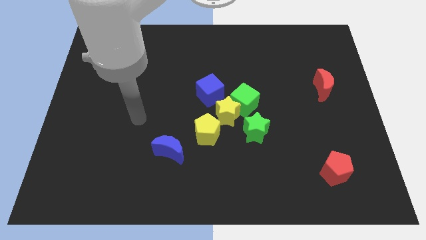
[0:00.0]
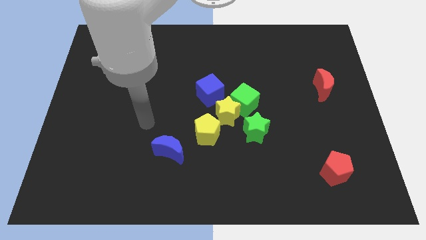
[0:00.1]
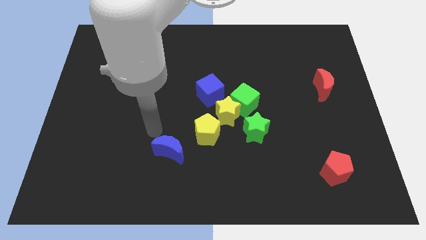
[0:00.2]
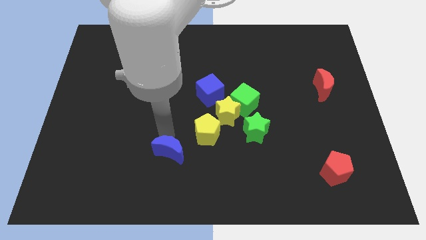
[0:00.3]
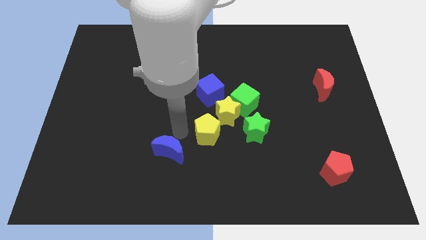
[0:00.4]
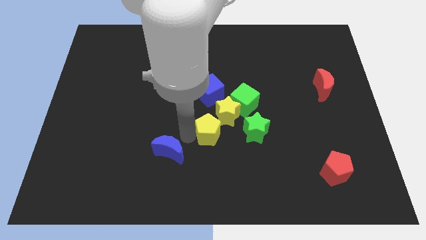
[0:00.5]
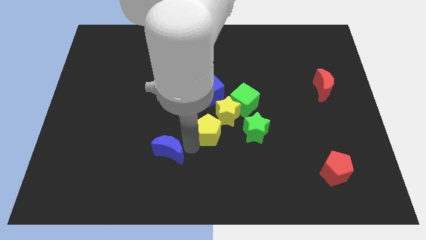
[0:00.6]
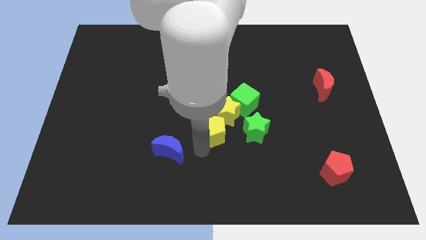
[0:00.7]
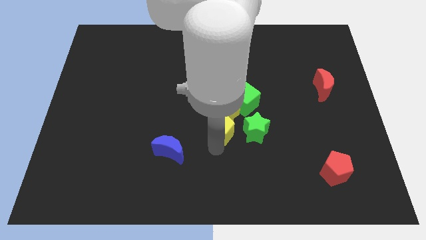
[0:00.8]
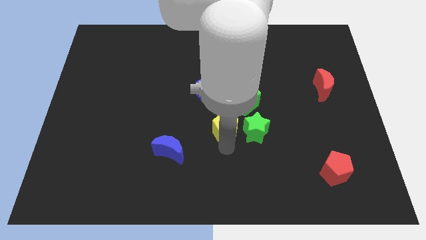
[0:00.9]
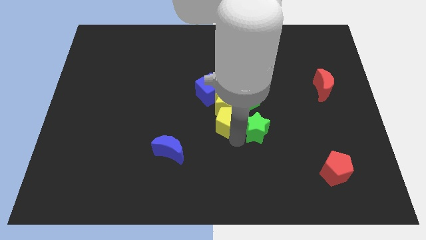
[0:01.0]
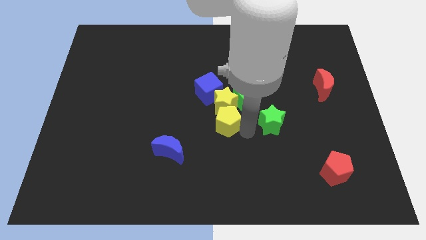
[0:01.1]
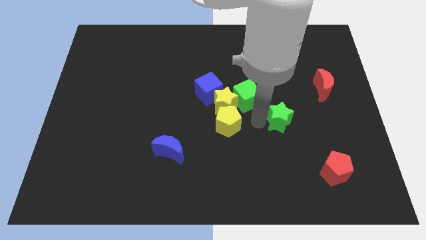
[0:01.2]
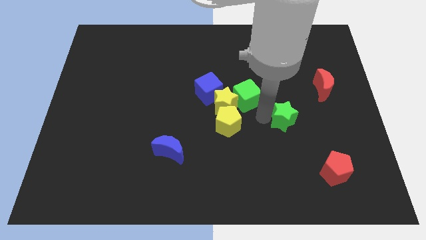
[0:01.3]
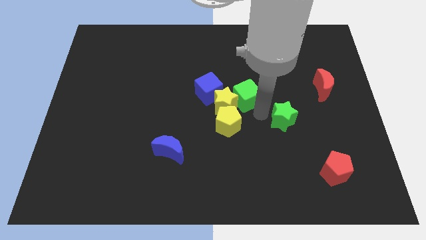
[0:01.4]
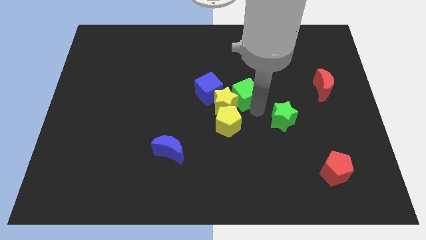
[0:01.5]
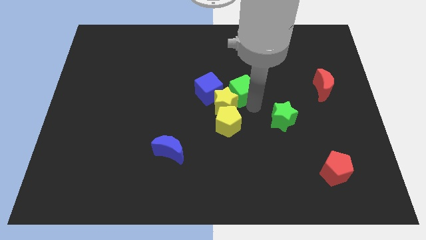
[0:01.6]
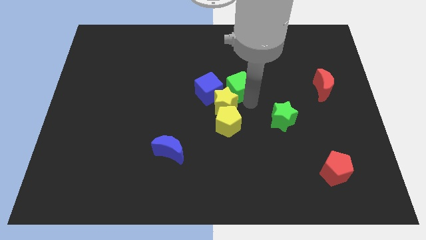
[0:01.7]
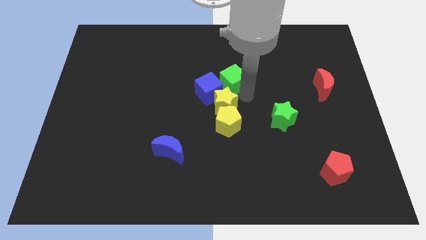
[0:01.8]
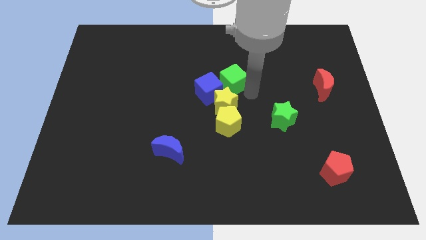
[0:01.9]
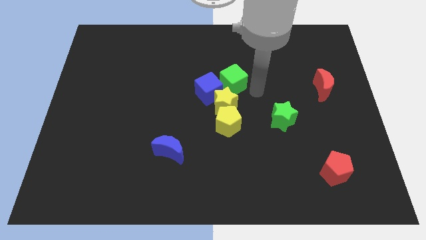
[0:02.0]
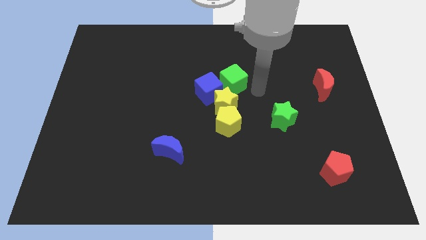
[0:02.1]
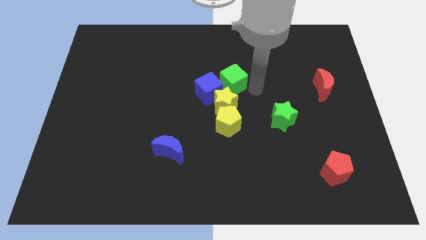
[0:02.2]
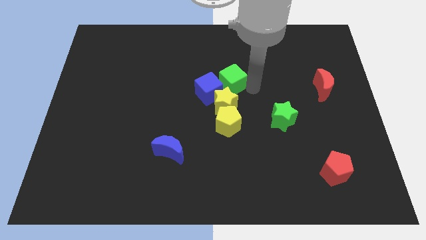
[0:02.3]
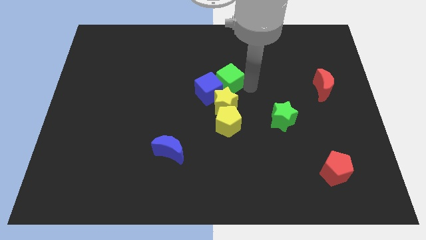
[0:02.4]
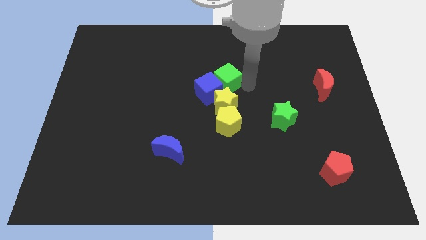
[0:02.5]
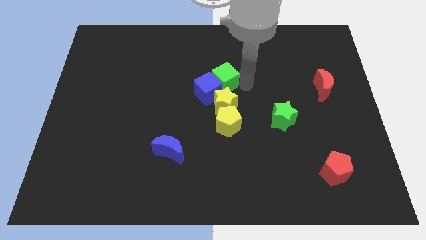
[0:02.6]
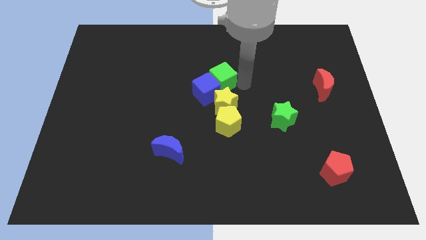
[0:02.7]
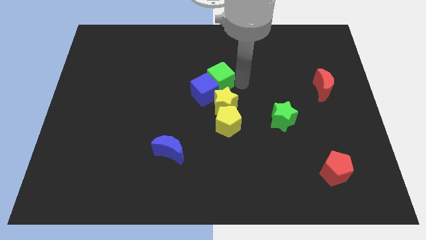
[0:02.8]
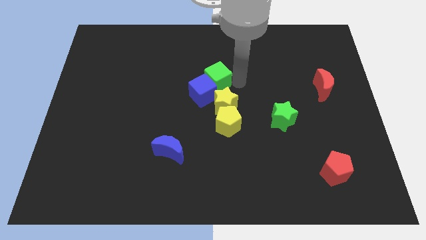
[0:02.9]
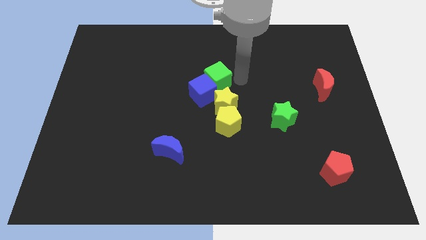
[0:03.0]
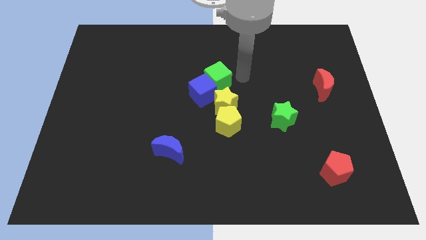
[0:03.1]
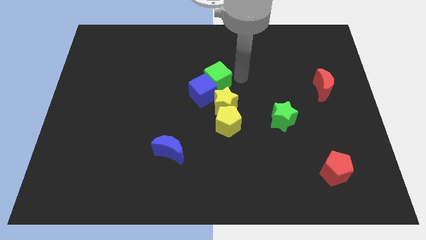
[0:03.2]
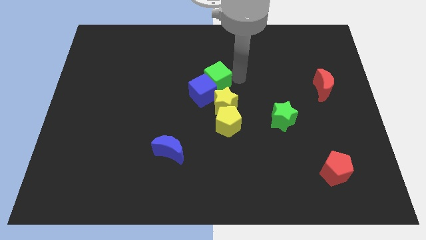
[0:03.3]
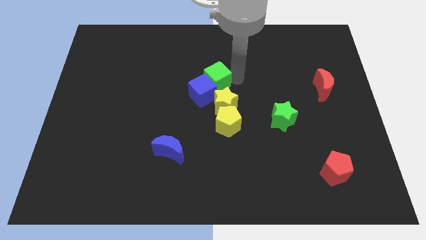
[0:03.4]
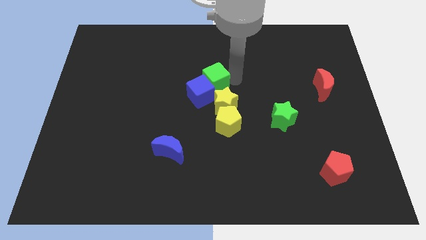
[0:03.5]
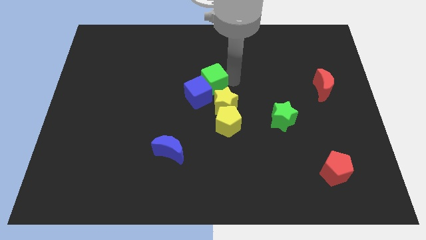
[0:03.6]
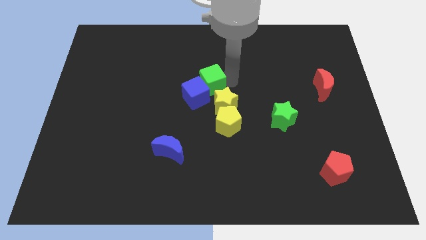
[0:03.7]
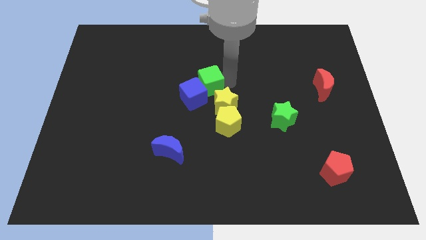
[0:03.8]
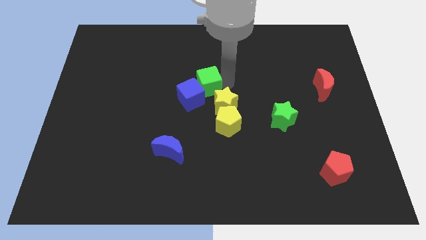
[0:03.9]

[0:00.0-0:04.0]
slightly slide the green cube to the left

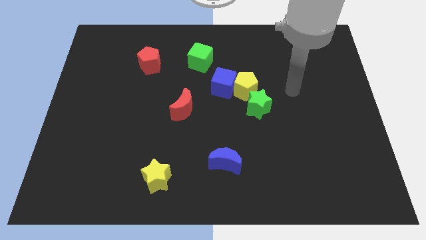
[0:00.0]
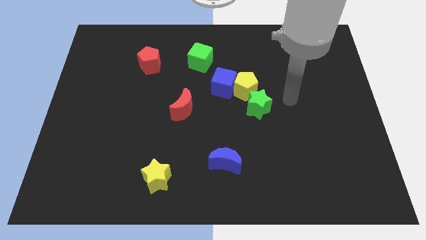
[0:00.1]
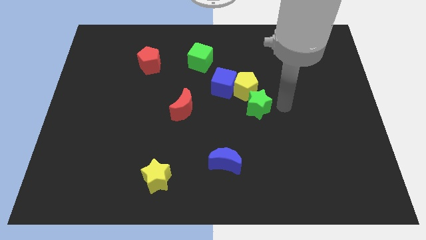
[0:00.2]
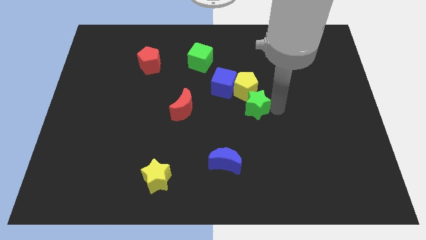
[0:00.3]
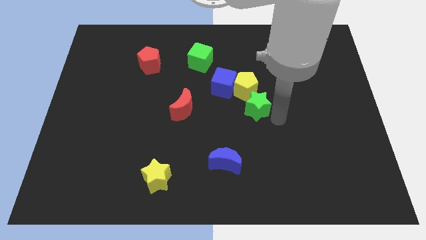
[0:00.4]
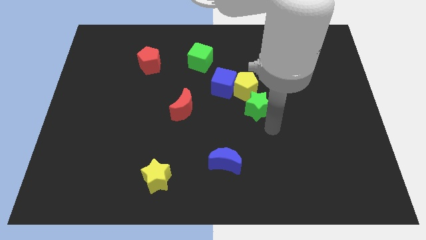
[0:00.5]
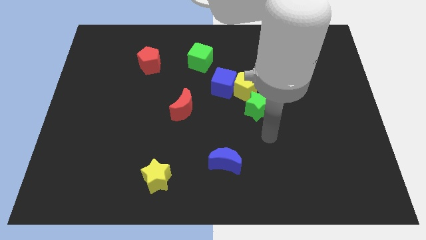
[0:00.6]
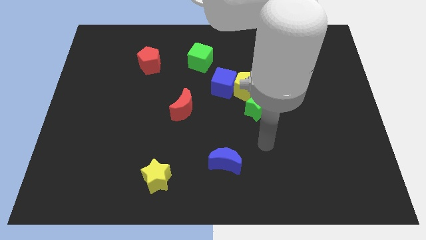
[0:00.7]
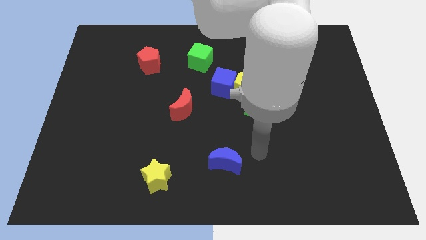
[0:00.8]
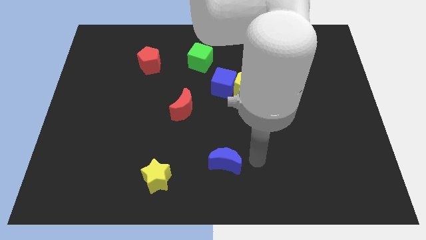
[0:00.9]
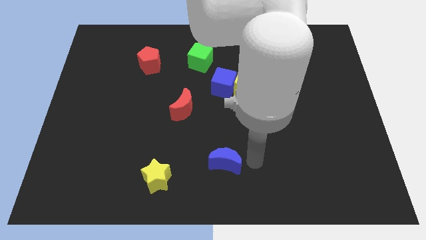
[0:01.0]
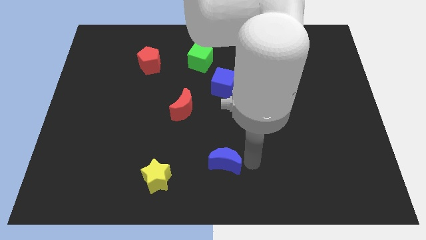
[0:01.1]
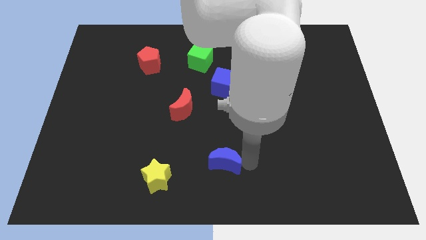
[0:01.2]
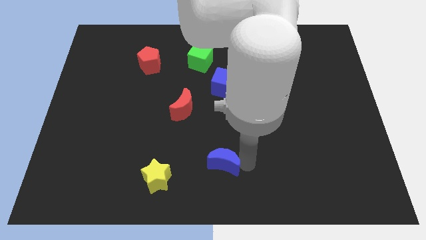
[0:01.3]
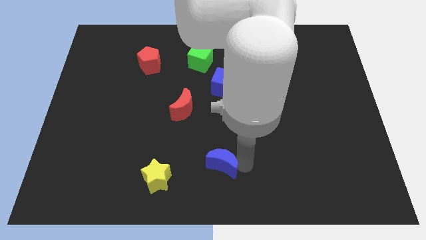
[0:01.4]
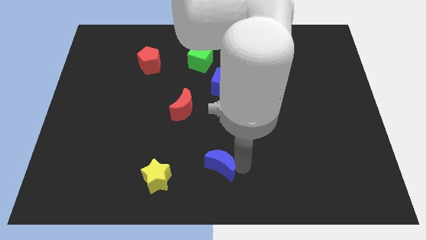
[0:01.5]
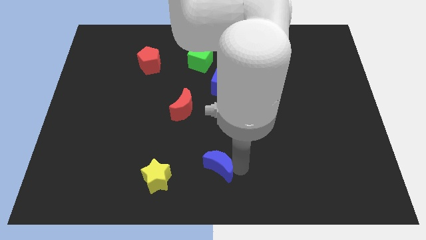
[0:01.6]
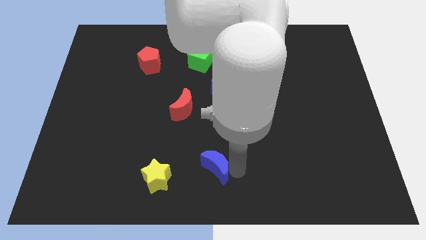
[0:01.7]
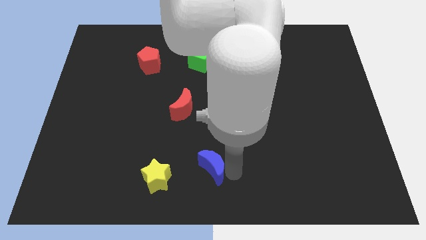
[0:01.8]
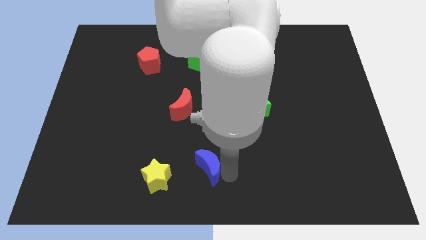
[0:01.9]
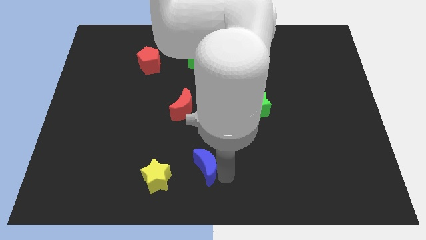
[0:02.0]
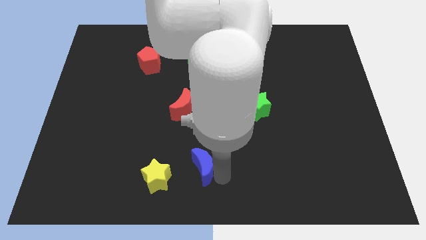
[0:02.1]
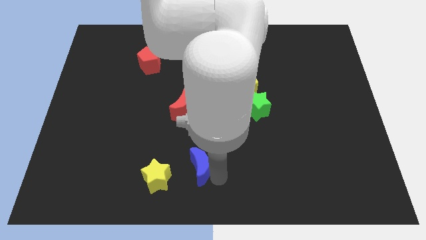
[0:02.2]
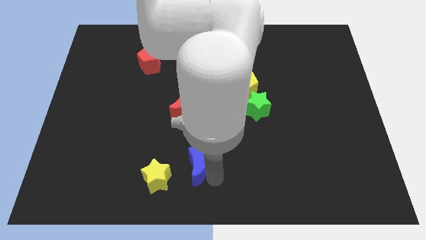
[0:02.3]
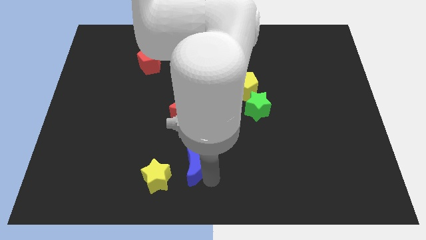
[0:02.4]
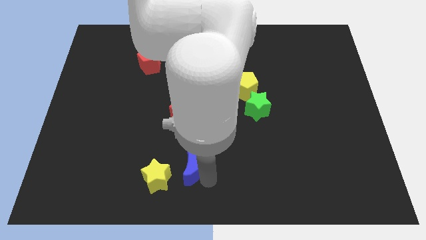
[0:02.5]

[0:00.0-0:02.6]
push the blue moon a little bit left

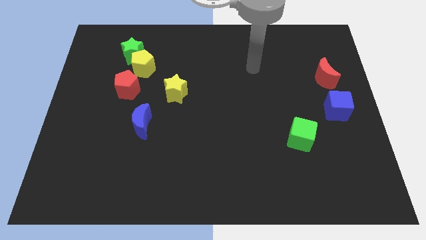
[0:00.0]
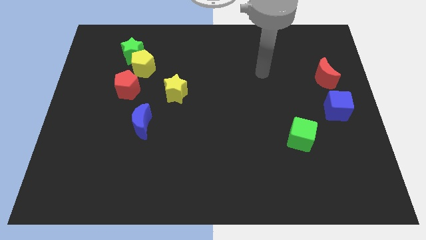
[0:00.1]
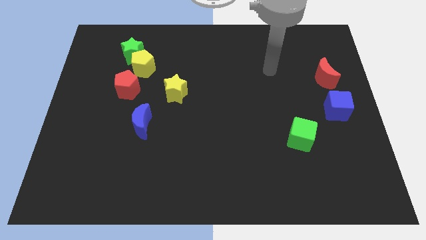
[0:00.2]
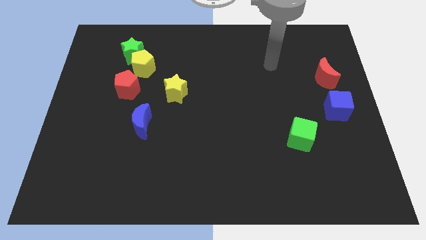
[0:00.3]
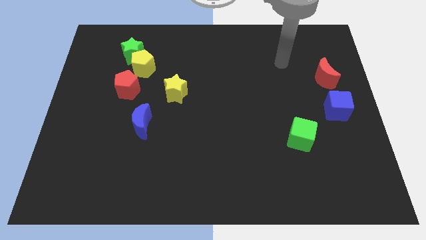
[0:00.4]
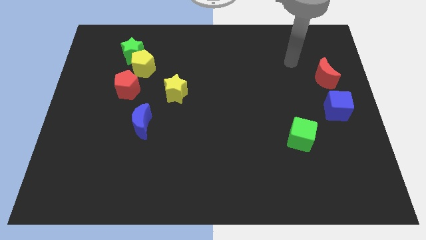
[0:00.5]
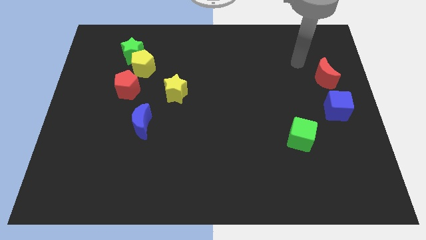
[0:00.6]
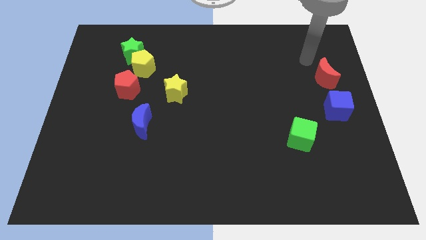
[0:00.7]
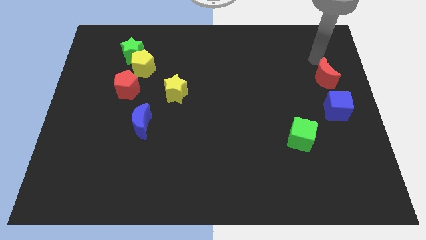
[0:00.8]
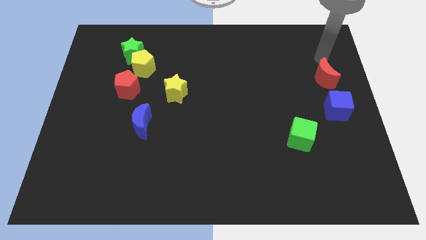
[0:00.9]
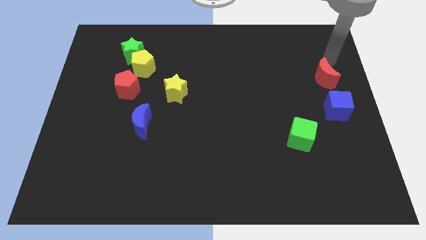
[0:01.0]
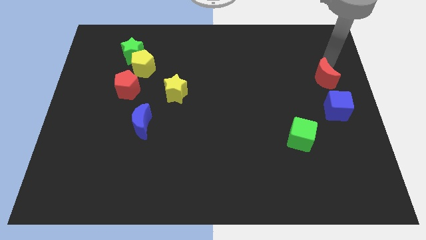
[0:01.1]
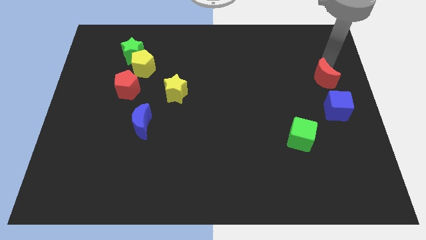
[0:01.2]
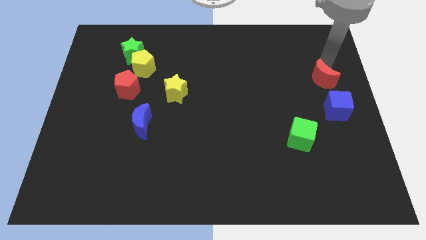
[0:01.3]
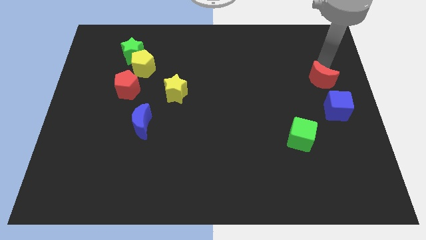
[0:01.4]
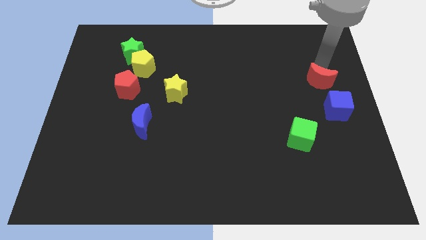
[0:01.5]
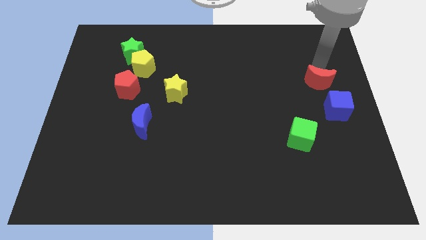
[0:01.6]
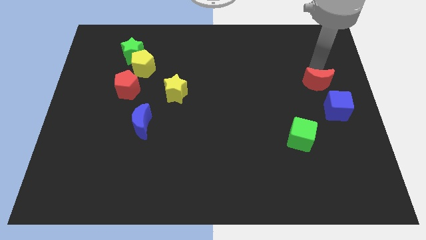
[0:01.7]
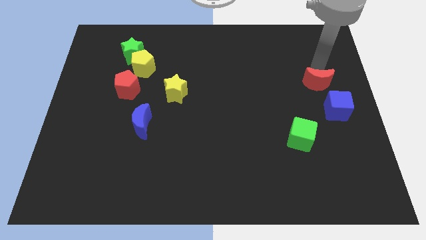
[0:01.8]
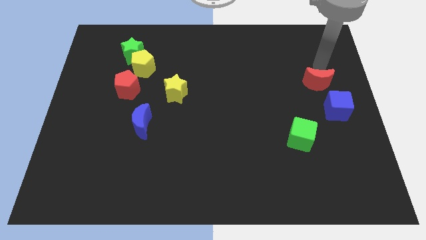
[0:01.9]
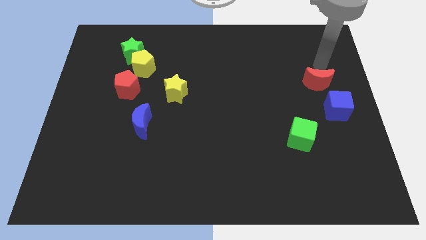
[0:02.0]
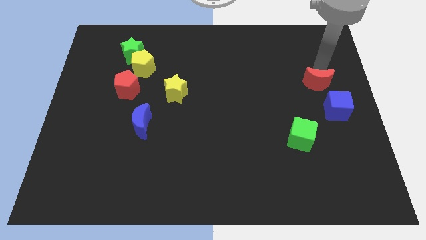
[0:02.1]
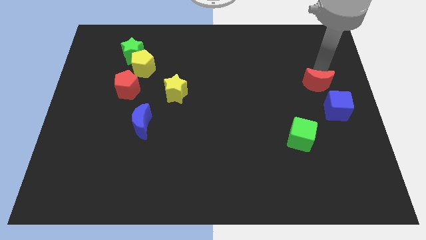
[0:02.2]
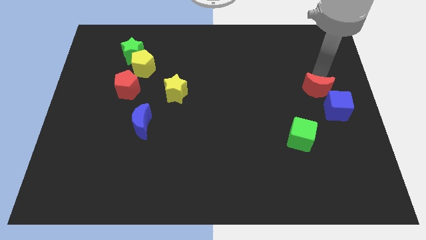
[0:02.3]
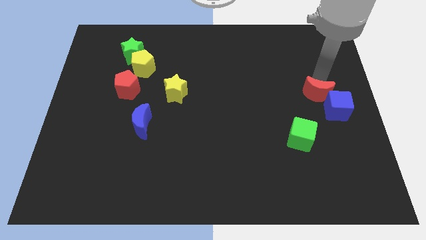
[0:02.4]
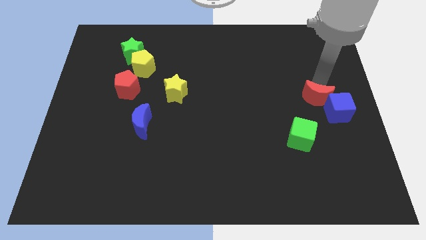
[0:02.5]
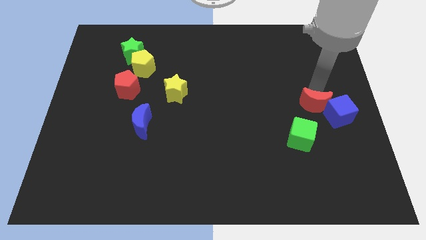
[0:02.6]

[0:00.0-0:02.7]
push the red moon down slightly
